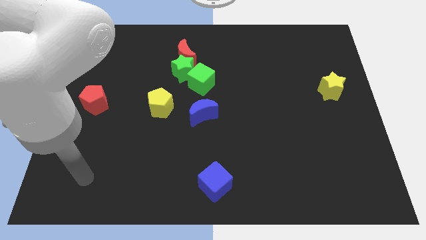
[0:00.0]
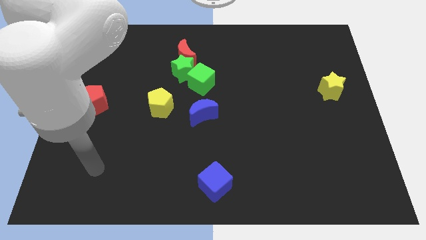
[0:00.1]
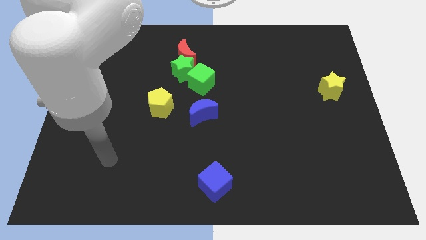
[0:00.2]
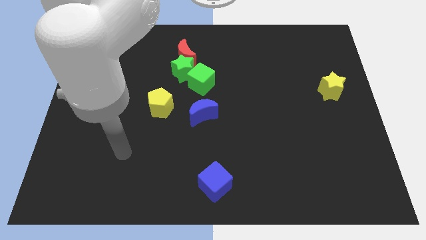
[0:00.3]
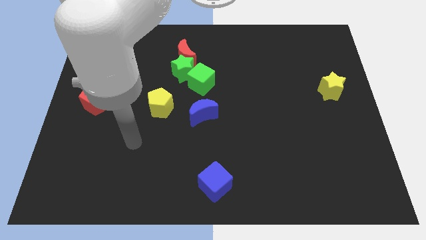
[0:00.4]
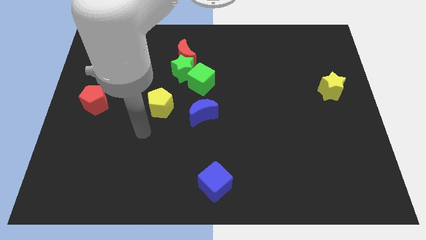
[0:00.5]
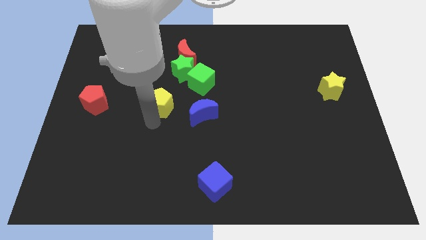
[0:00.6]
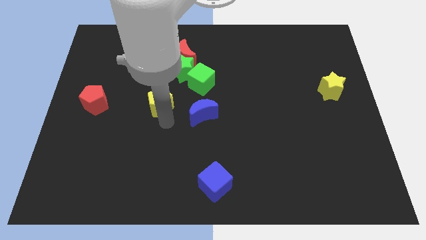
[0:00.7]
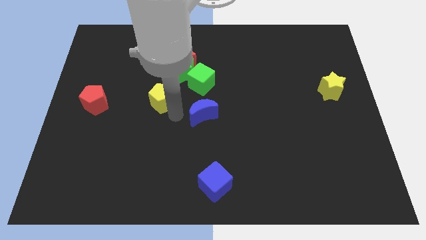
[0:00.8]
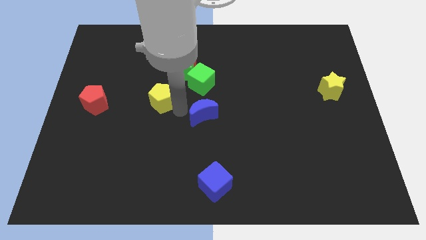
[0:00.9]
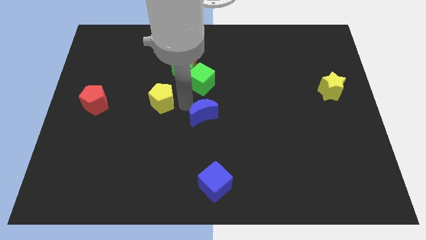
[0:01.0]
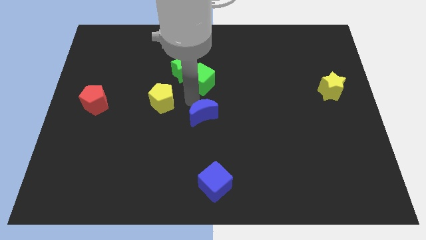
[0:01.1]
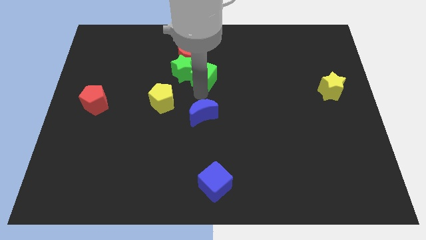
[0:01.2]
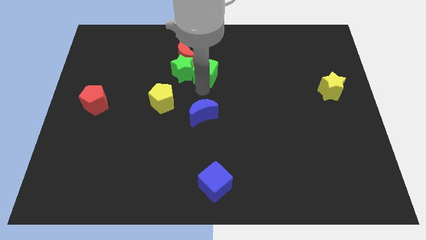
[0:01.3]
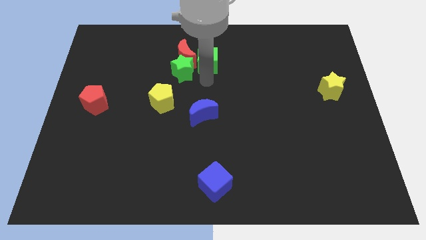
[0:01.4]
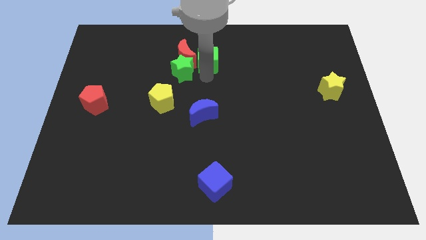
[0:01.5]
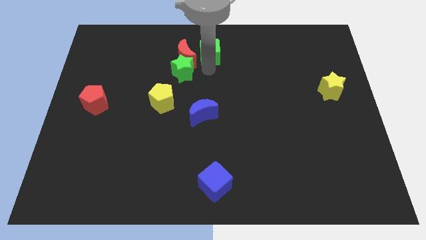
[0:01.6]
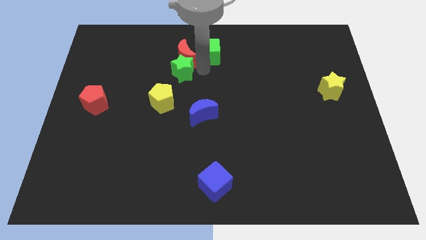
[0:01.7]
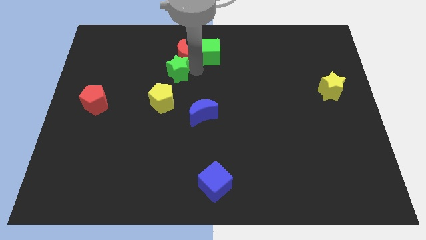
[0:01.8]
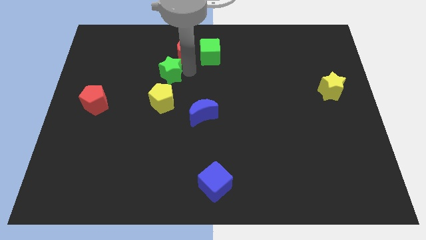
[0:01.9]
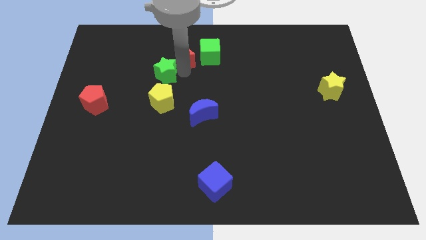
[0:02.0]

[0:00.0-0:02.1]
pull the green star apart from the red moon and green cube

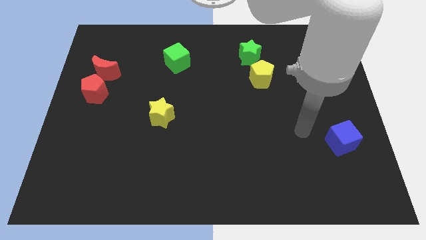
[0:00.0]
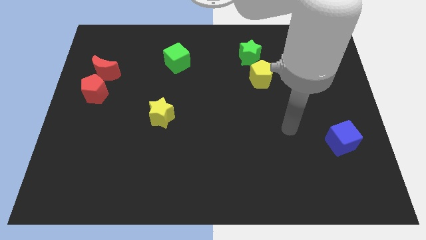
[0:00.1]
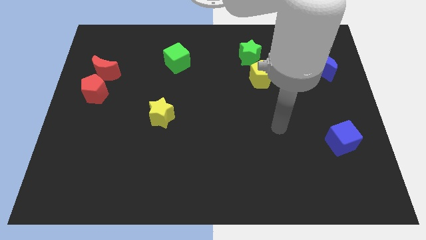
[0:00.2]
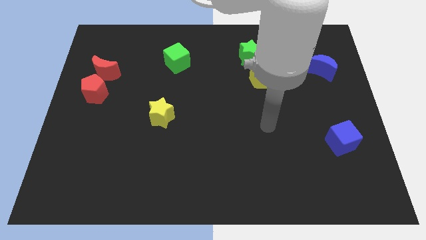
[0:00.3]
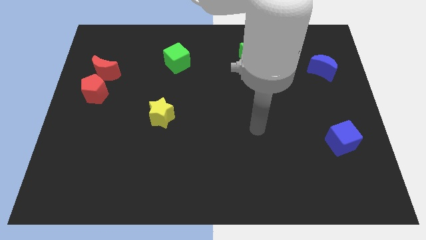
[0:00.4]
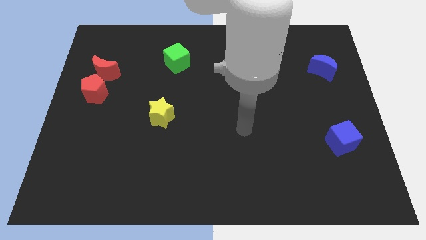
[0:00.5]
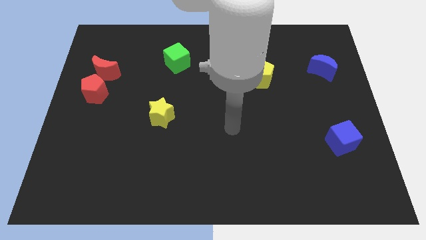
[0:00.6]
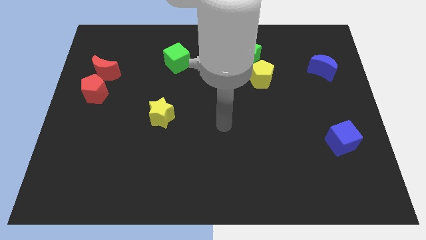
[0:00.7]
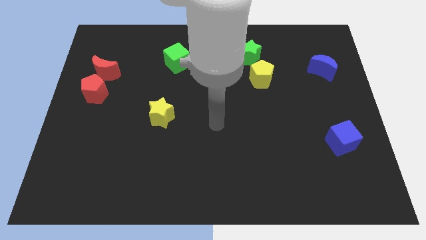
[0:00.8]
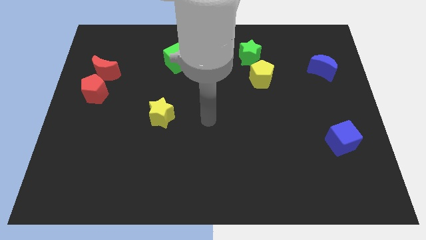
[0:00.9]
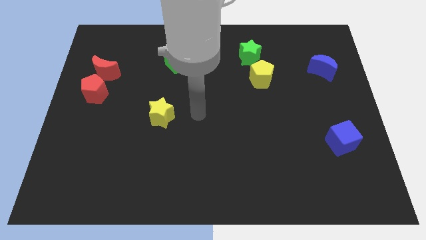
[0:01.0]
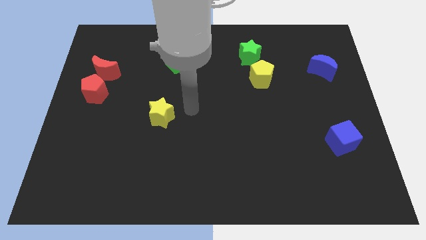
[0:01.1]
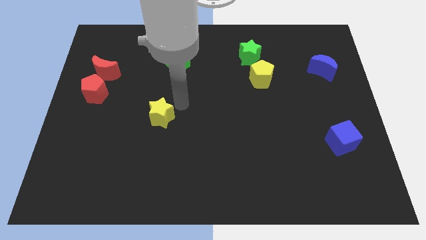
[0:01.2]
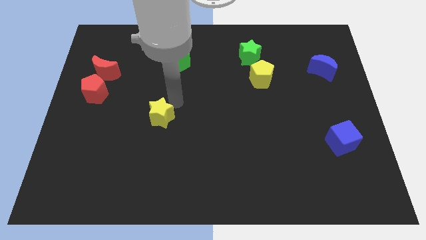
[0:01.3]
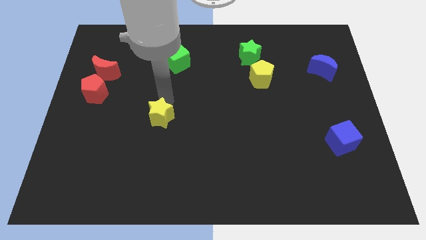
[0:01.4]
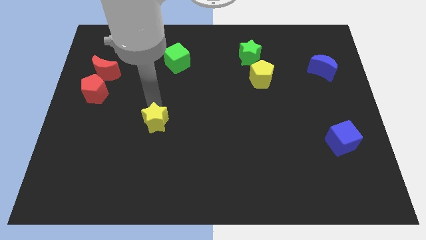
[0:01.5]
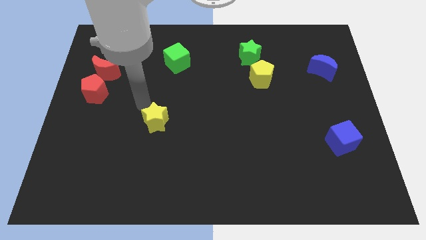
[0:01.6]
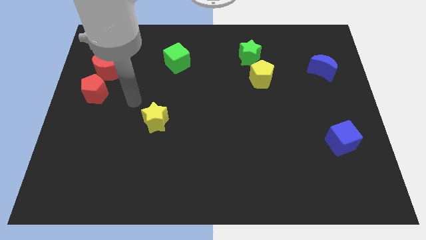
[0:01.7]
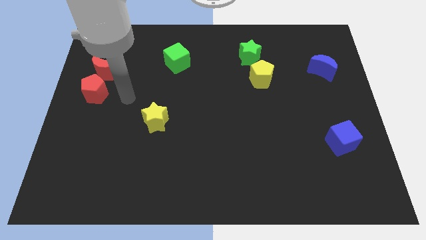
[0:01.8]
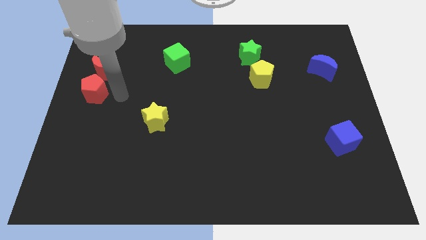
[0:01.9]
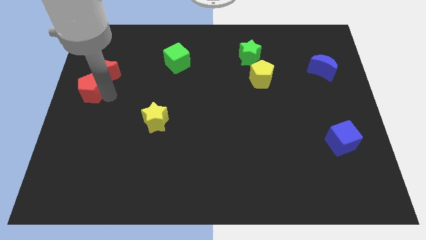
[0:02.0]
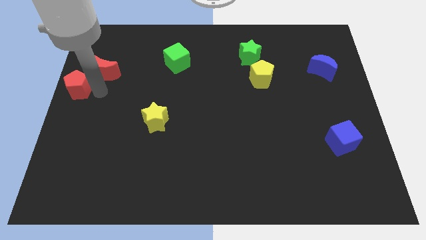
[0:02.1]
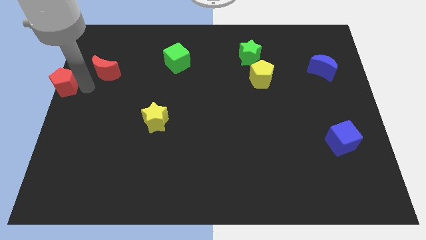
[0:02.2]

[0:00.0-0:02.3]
move the red moon away from the red pentagon

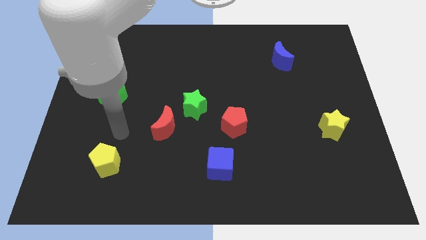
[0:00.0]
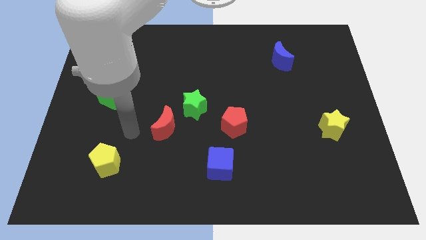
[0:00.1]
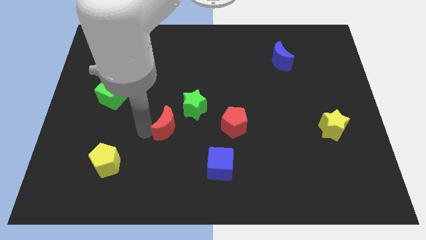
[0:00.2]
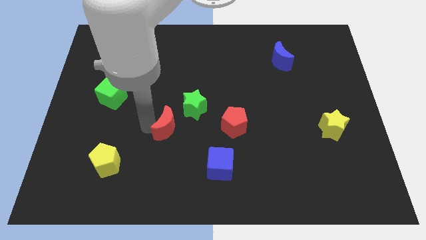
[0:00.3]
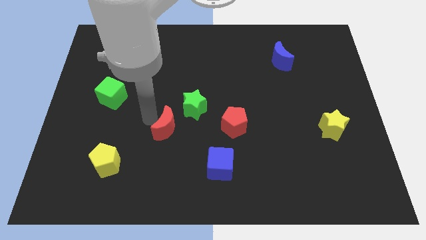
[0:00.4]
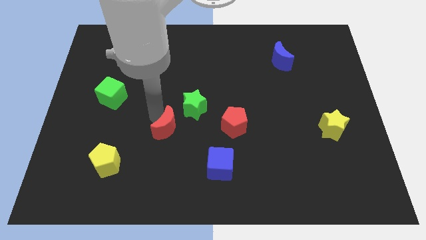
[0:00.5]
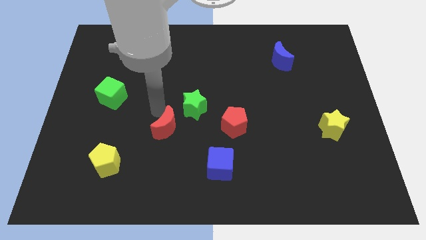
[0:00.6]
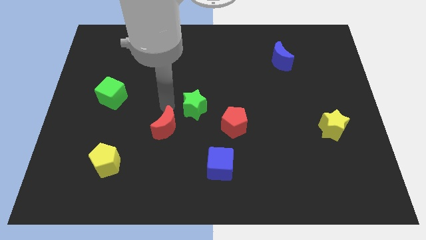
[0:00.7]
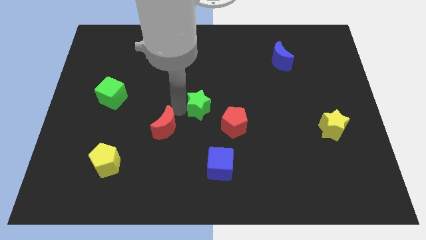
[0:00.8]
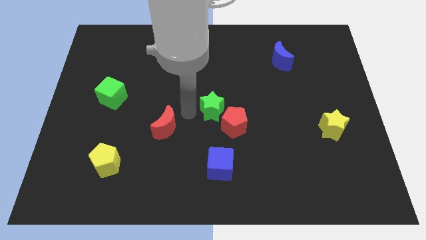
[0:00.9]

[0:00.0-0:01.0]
separate the red moon from the green star

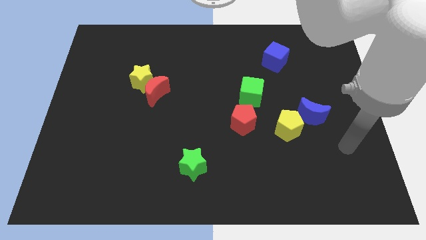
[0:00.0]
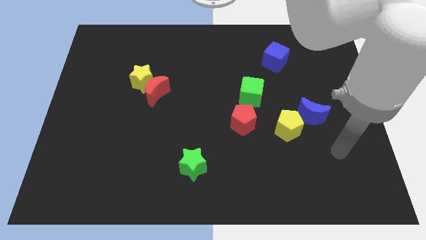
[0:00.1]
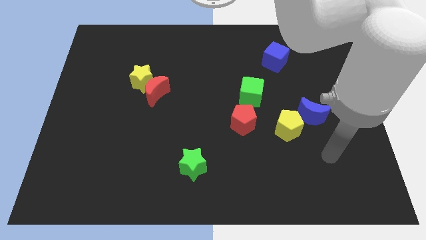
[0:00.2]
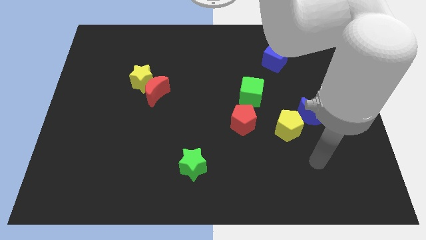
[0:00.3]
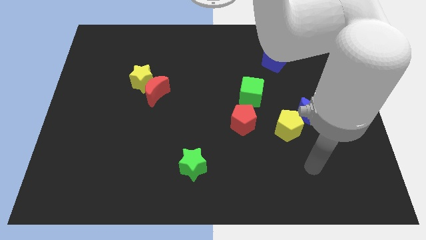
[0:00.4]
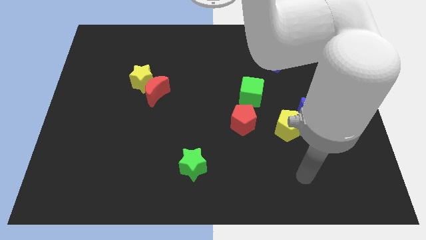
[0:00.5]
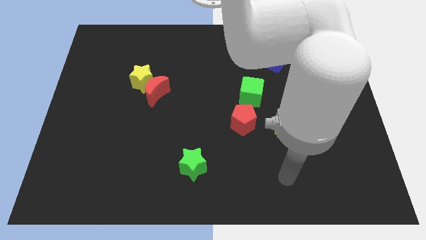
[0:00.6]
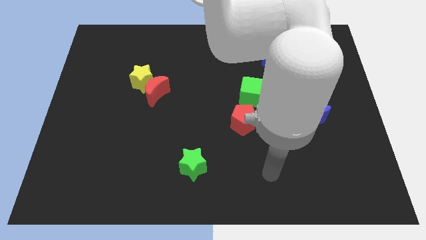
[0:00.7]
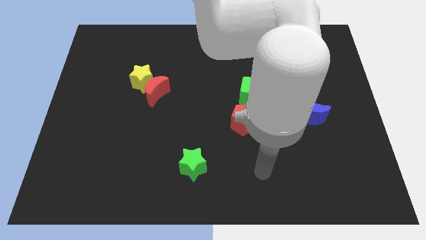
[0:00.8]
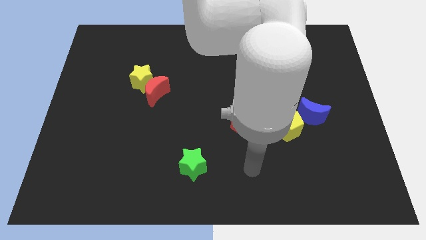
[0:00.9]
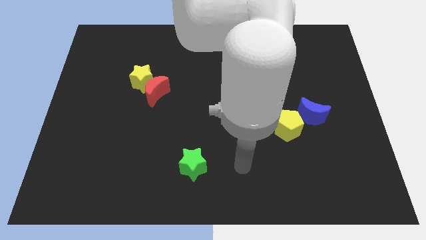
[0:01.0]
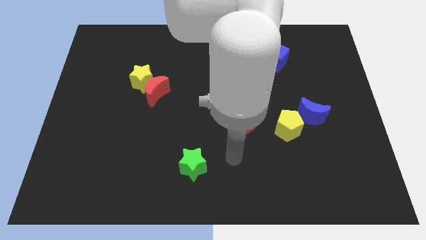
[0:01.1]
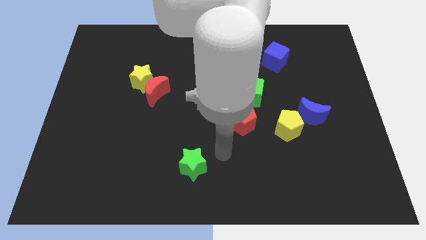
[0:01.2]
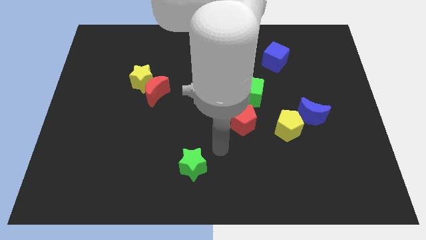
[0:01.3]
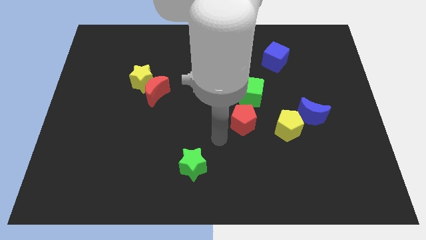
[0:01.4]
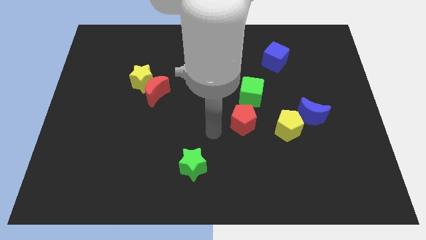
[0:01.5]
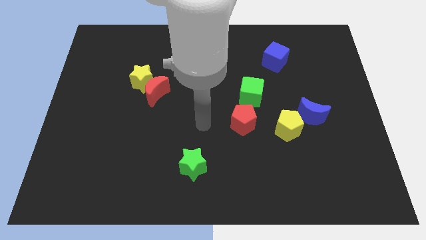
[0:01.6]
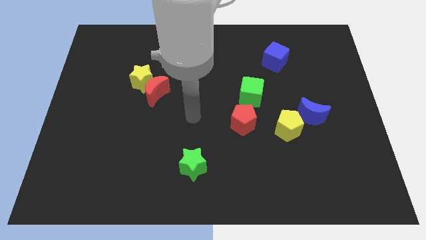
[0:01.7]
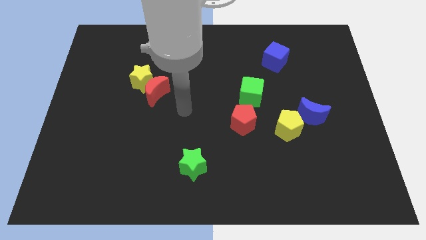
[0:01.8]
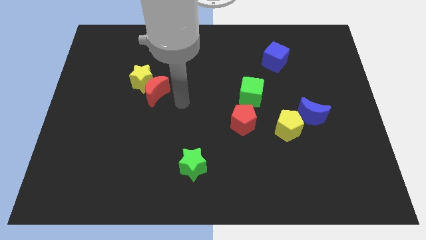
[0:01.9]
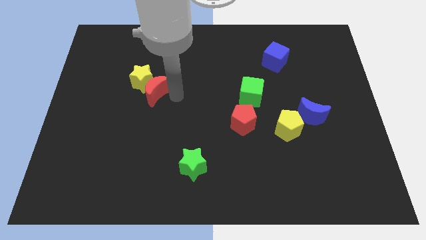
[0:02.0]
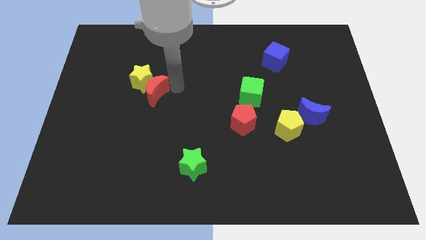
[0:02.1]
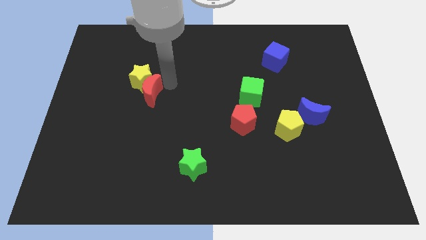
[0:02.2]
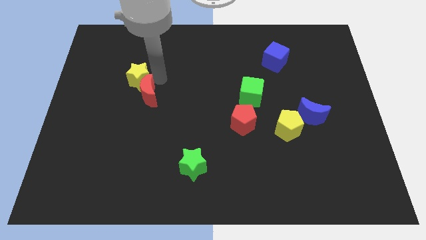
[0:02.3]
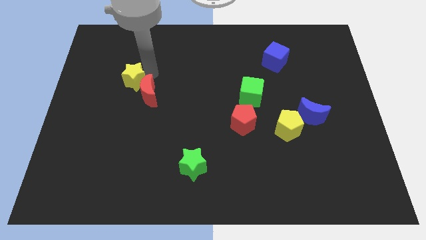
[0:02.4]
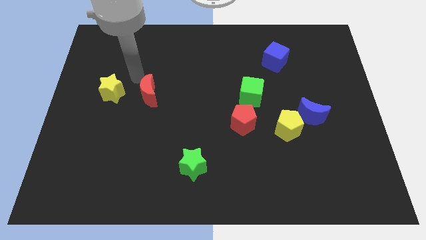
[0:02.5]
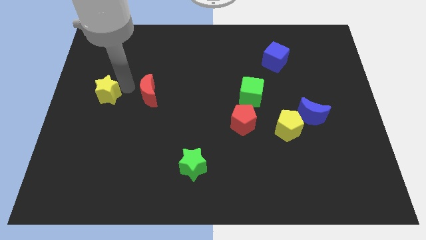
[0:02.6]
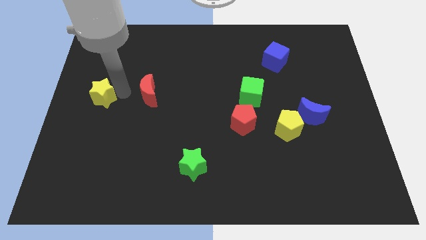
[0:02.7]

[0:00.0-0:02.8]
separate the red moon from the yellow star

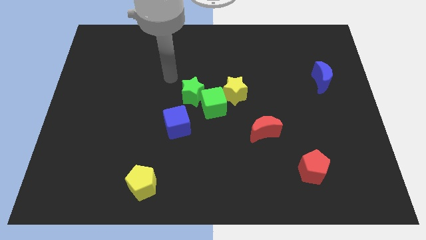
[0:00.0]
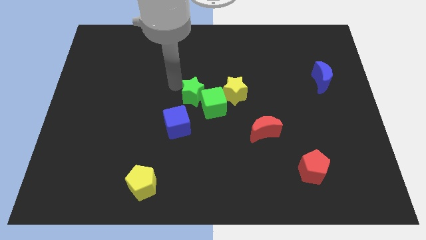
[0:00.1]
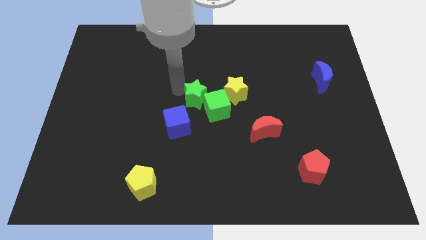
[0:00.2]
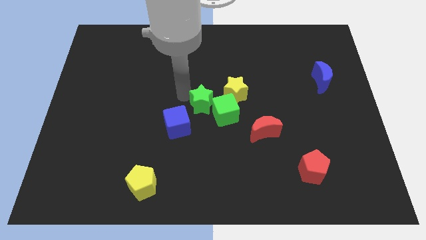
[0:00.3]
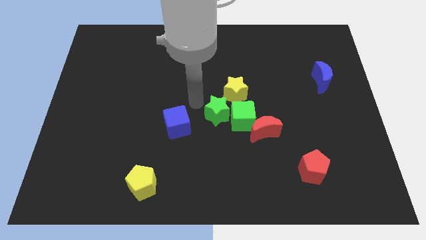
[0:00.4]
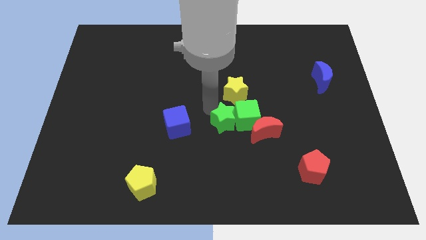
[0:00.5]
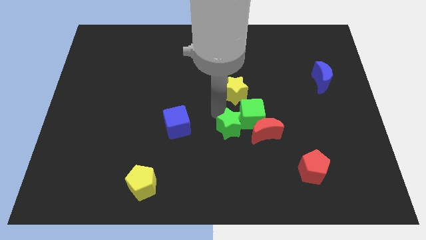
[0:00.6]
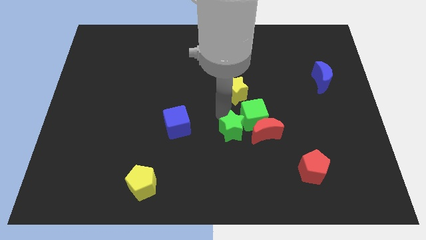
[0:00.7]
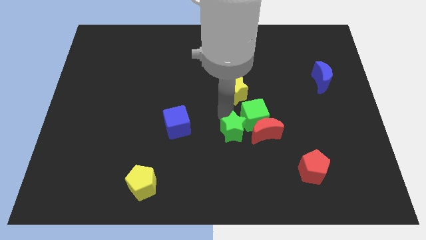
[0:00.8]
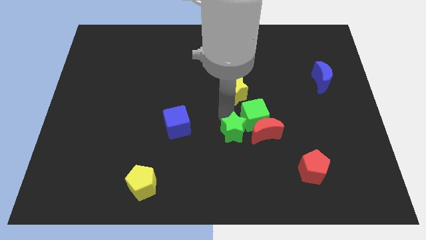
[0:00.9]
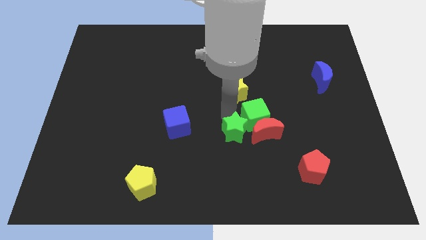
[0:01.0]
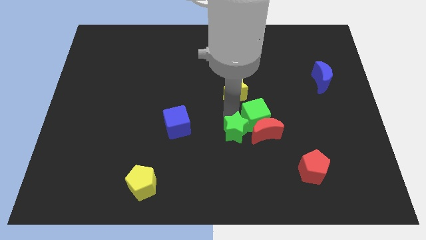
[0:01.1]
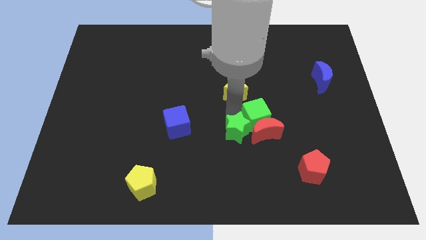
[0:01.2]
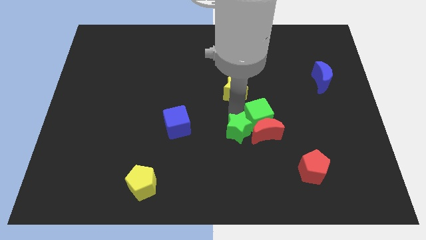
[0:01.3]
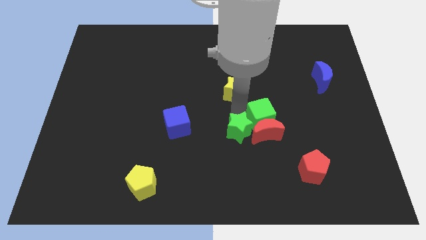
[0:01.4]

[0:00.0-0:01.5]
separate the green cube from the green star, yellow star, and blue cube
